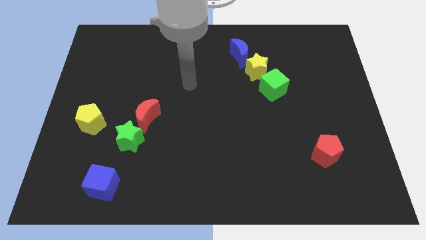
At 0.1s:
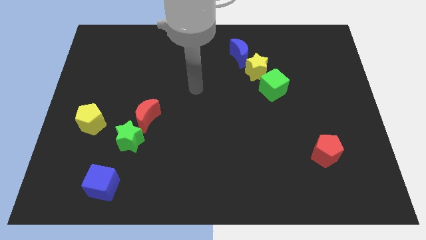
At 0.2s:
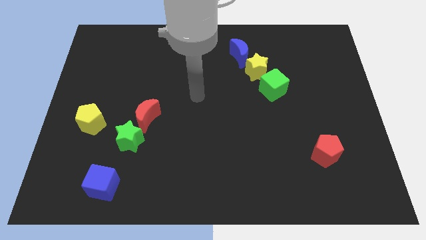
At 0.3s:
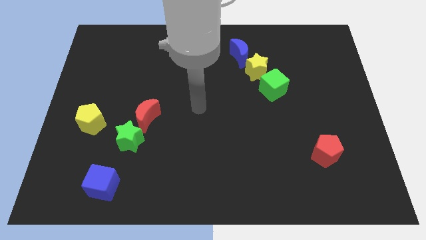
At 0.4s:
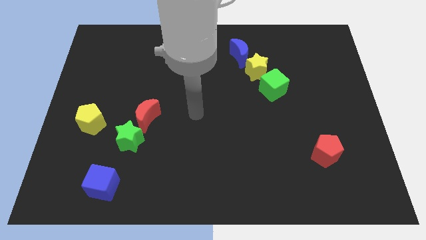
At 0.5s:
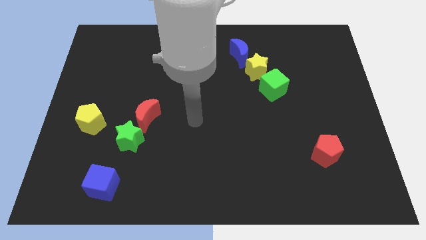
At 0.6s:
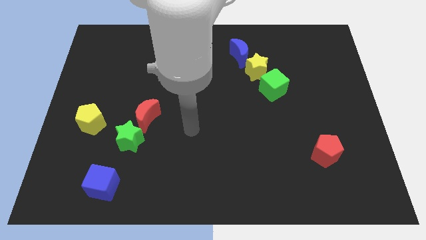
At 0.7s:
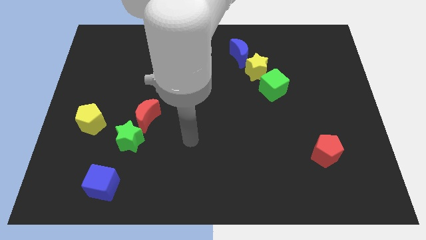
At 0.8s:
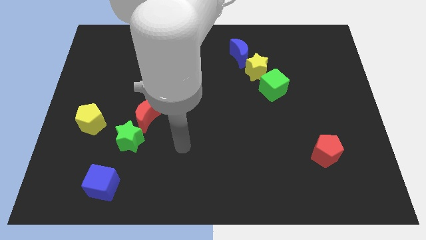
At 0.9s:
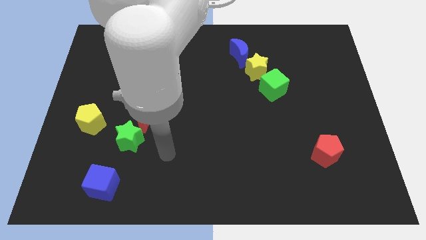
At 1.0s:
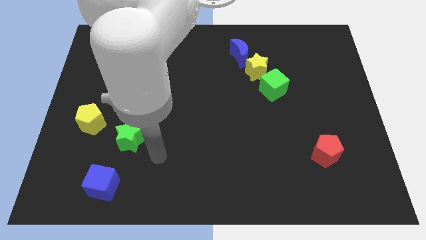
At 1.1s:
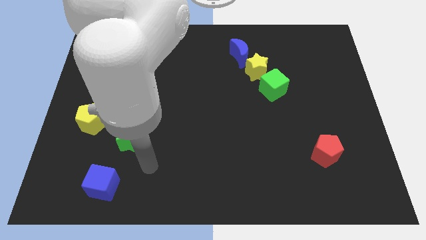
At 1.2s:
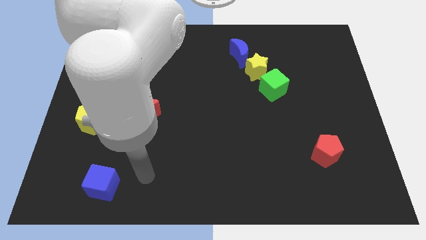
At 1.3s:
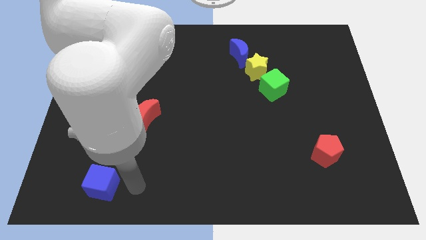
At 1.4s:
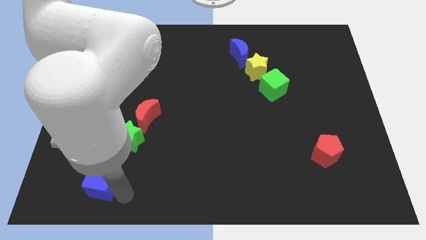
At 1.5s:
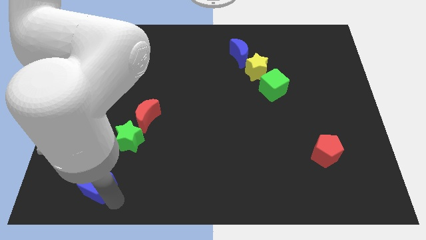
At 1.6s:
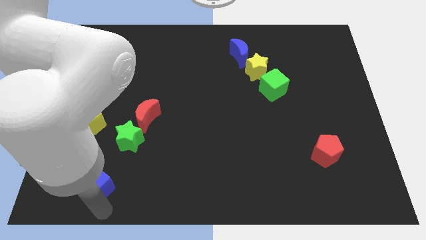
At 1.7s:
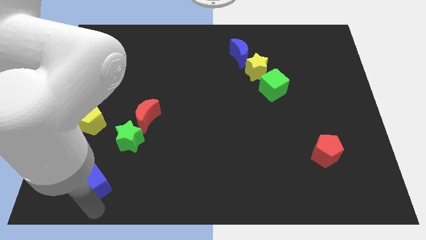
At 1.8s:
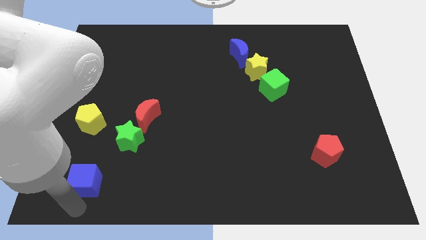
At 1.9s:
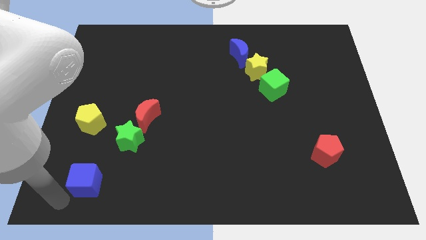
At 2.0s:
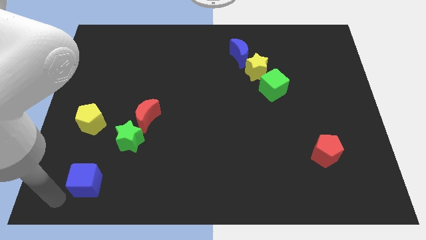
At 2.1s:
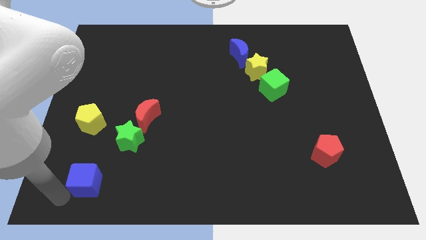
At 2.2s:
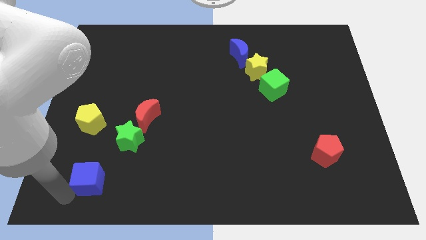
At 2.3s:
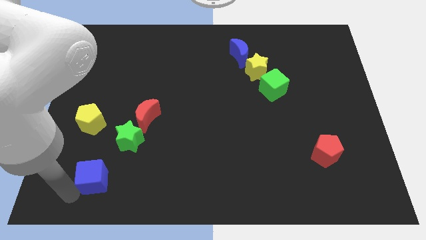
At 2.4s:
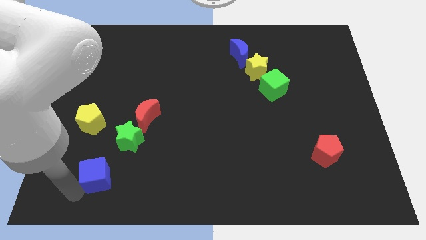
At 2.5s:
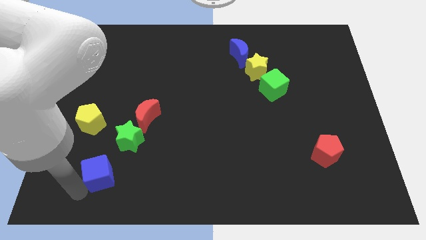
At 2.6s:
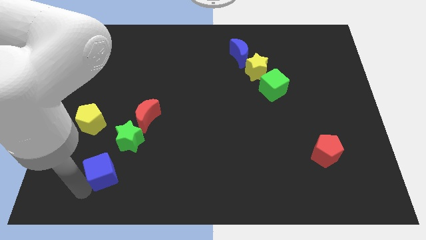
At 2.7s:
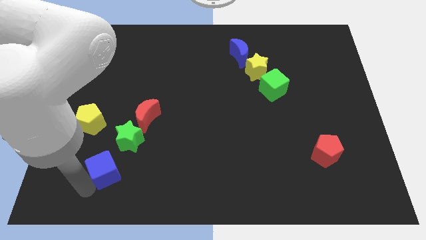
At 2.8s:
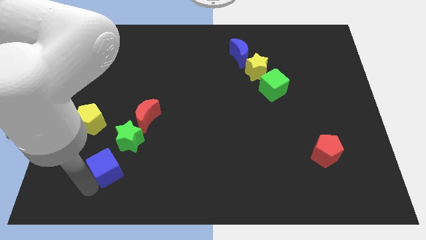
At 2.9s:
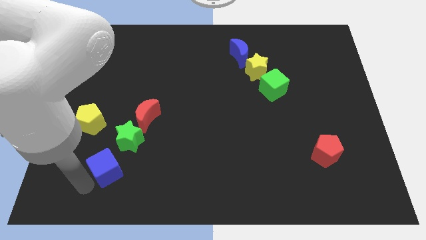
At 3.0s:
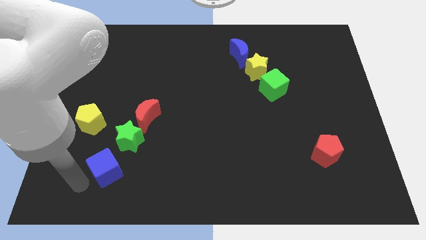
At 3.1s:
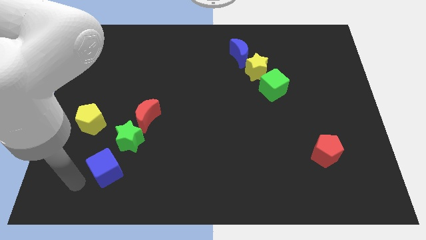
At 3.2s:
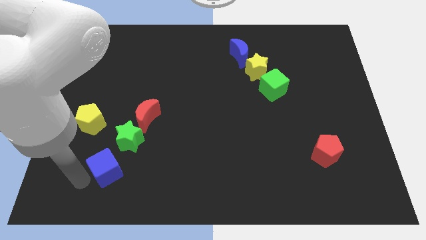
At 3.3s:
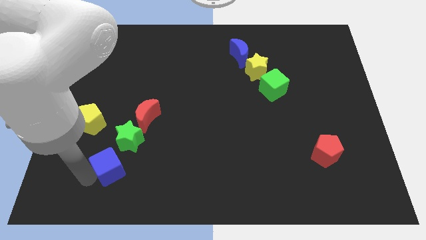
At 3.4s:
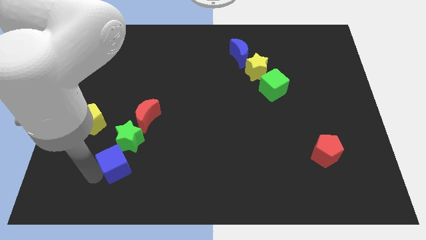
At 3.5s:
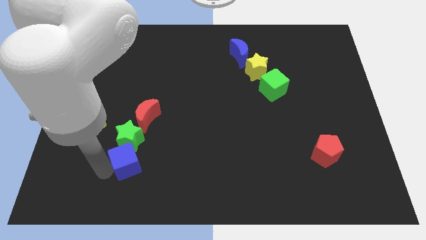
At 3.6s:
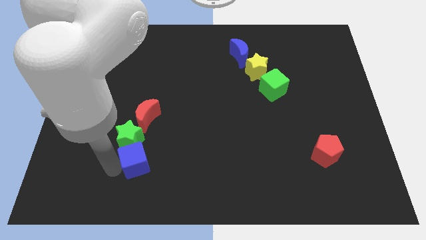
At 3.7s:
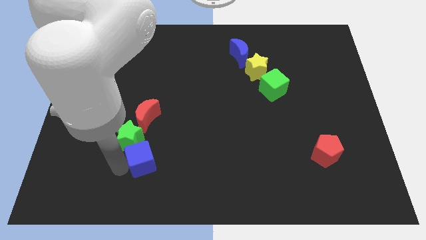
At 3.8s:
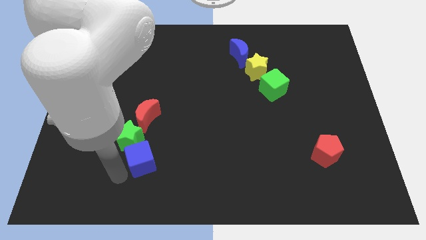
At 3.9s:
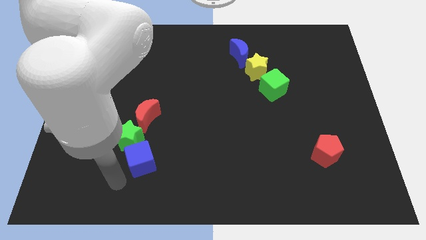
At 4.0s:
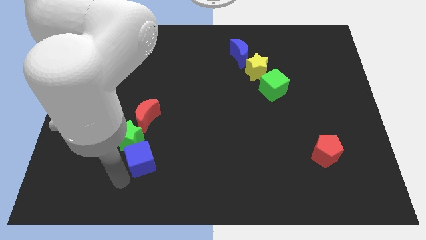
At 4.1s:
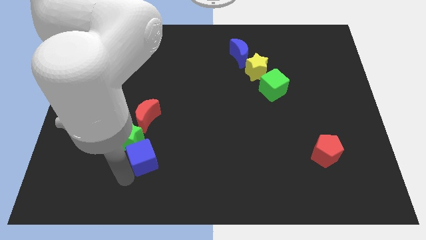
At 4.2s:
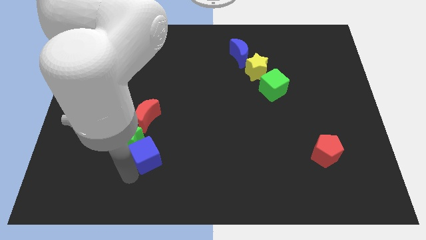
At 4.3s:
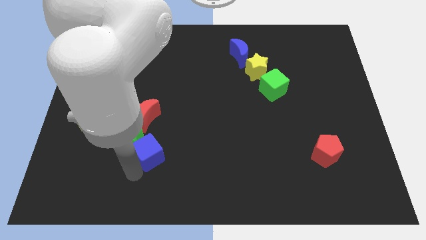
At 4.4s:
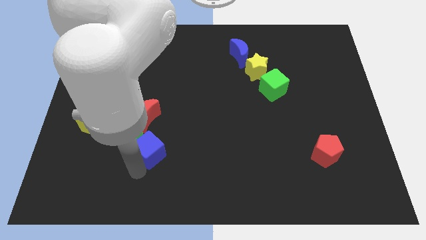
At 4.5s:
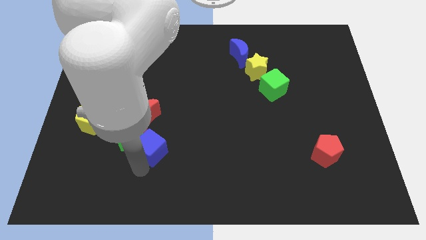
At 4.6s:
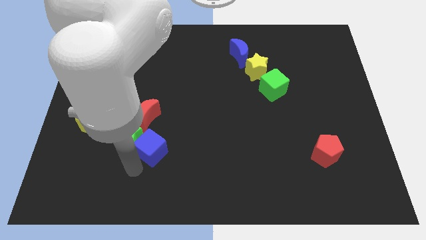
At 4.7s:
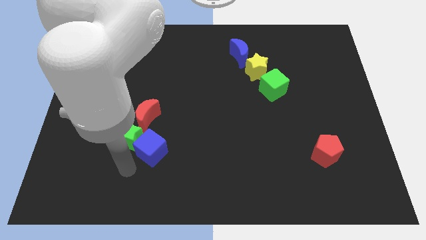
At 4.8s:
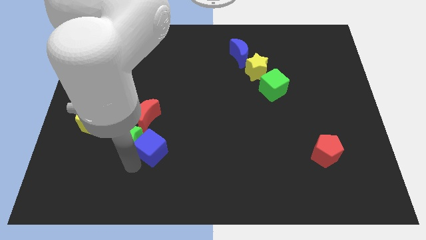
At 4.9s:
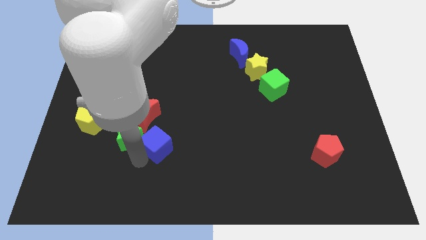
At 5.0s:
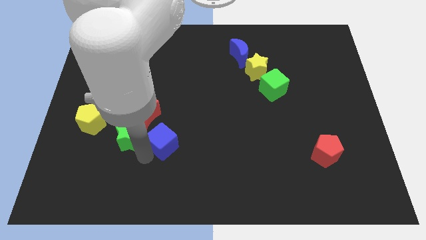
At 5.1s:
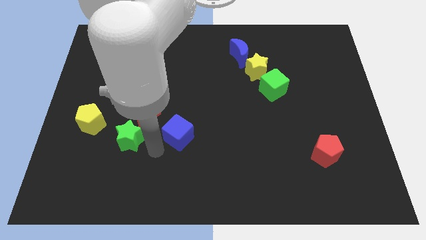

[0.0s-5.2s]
slide the blue cube to the middle

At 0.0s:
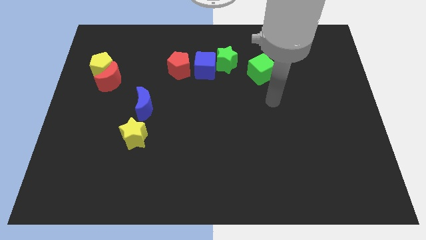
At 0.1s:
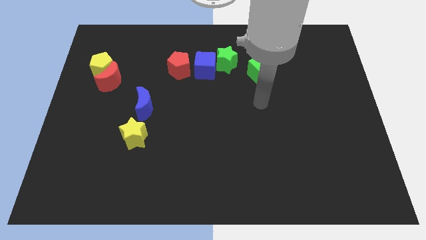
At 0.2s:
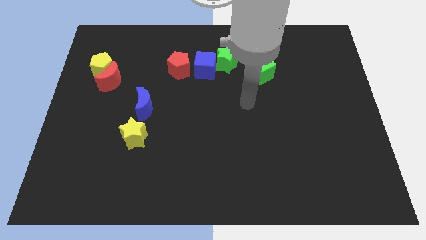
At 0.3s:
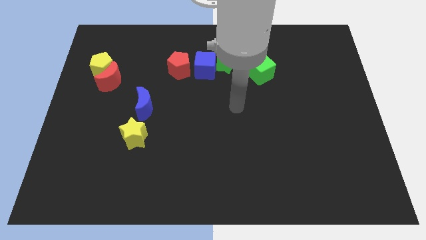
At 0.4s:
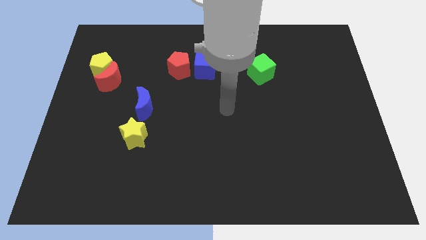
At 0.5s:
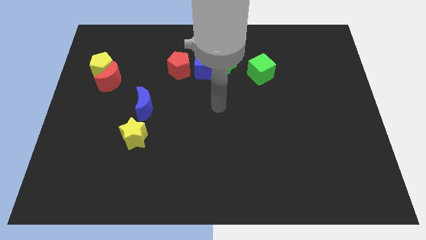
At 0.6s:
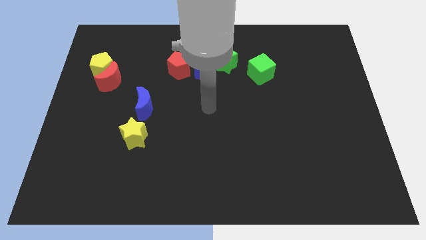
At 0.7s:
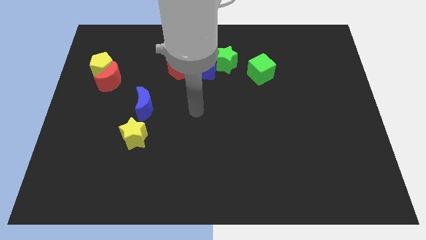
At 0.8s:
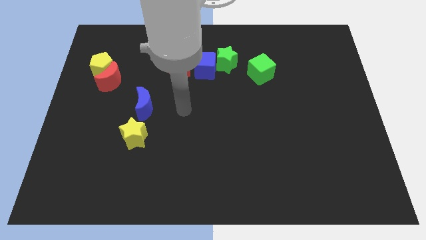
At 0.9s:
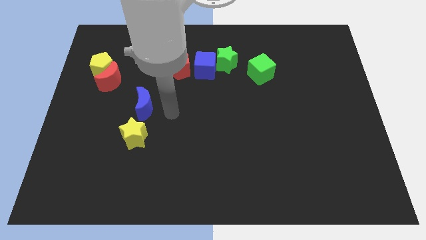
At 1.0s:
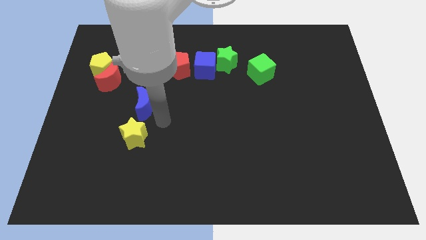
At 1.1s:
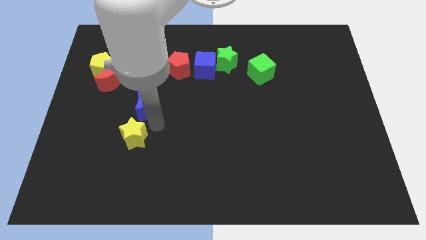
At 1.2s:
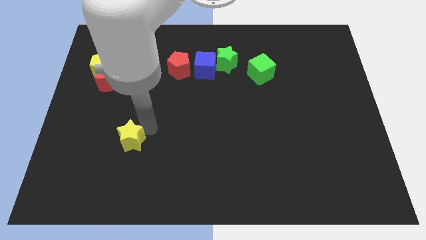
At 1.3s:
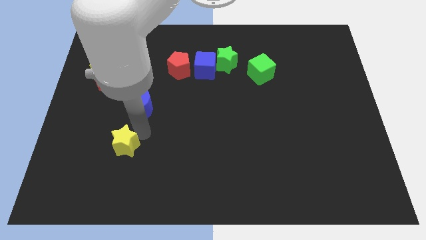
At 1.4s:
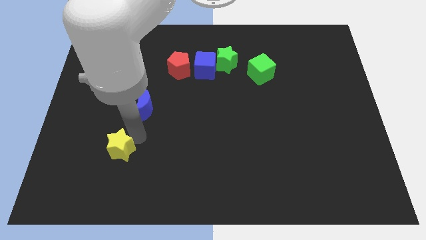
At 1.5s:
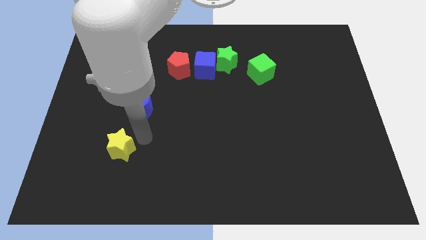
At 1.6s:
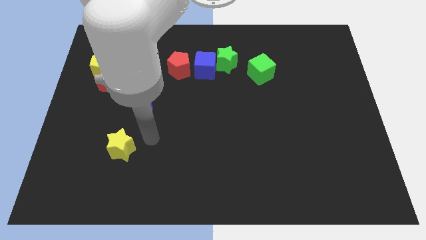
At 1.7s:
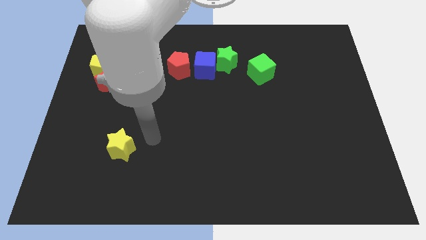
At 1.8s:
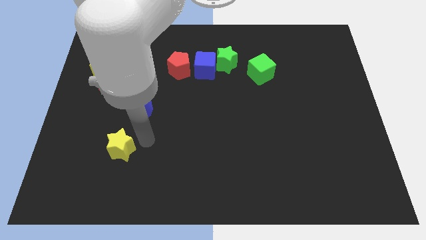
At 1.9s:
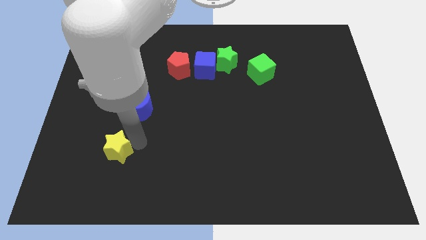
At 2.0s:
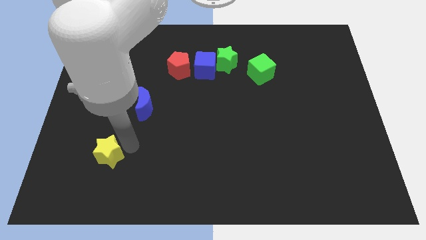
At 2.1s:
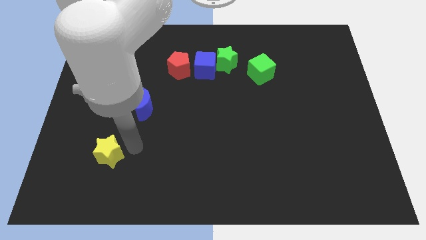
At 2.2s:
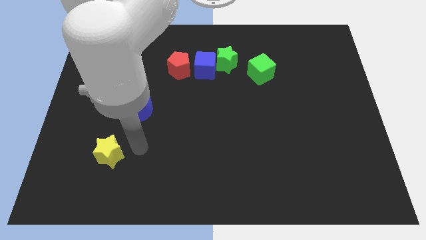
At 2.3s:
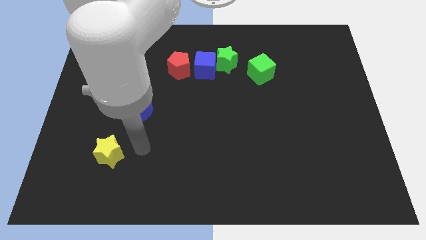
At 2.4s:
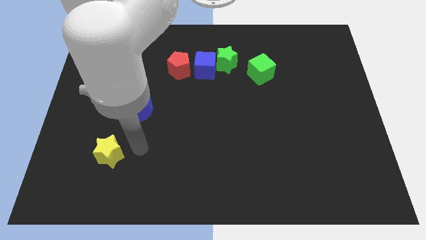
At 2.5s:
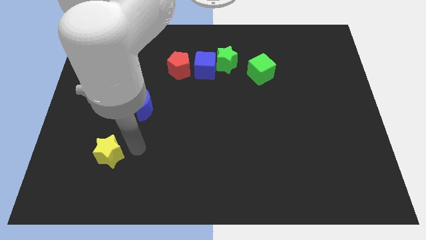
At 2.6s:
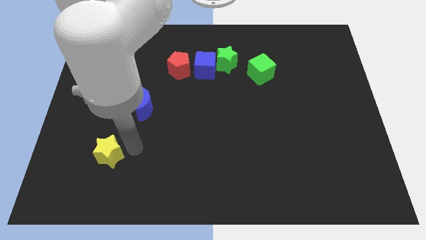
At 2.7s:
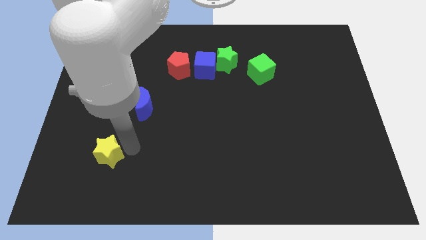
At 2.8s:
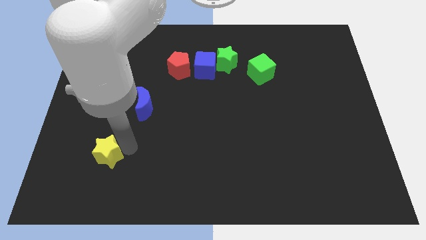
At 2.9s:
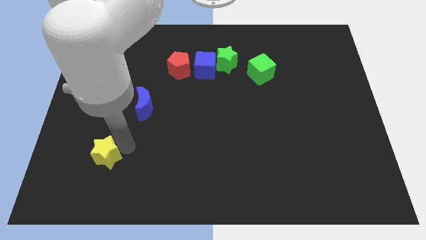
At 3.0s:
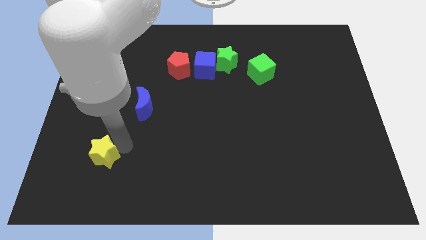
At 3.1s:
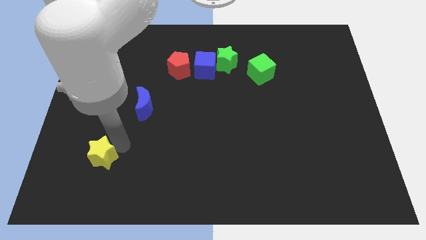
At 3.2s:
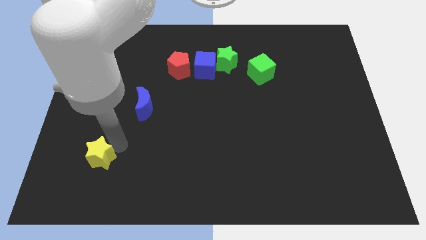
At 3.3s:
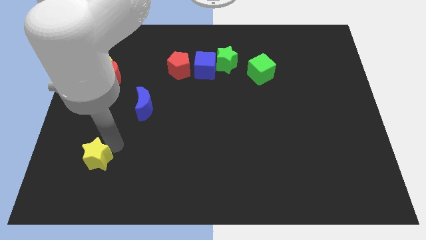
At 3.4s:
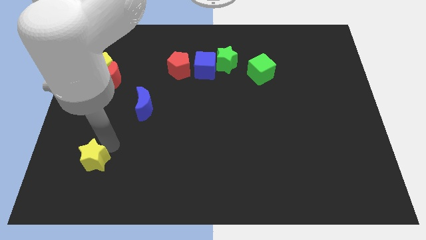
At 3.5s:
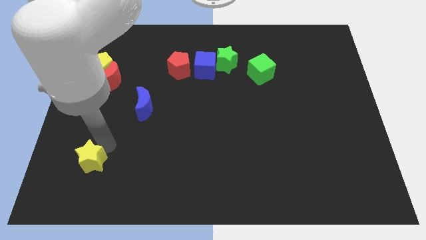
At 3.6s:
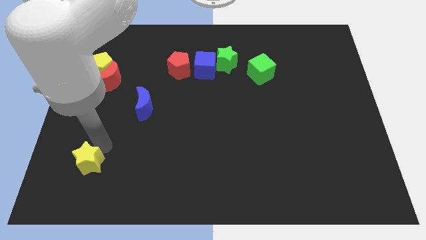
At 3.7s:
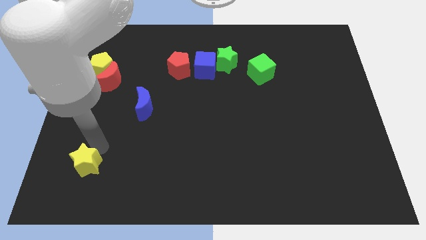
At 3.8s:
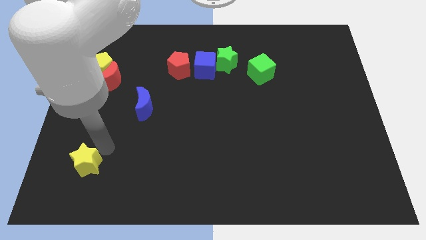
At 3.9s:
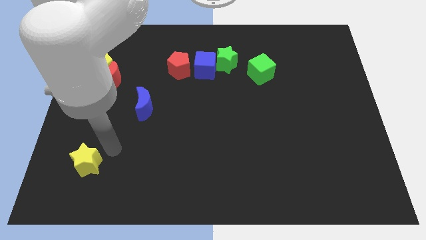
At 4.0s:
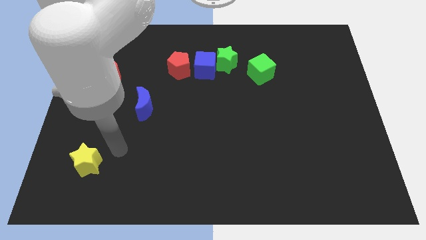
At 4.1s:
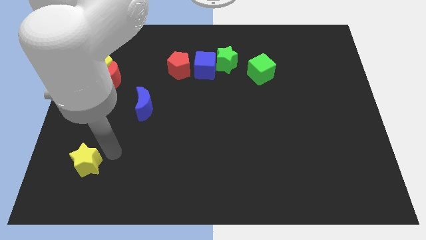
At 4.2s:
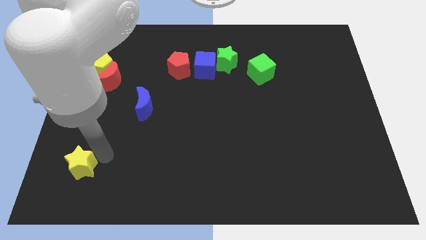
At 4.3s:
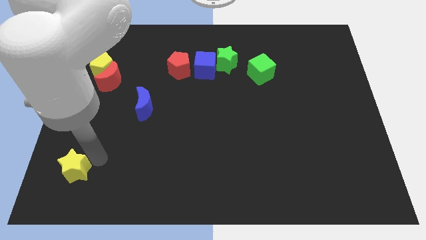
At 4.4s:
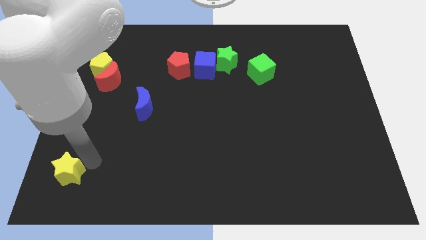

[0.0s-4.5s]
move the yellow star to the bottom left corner
